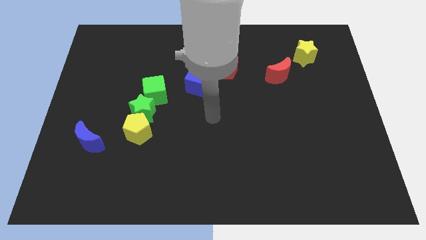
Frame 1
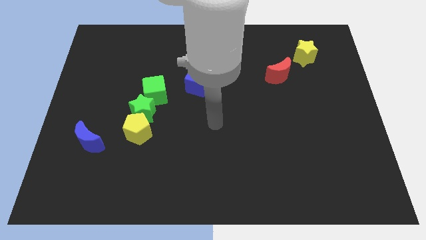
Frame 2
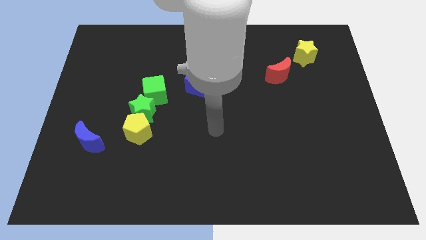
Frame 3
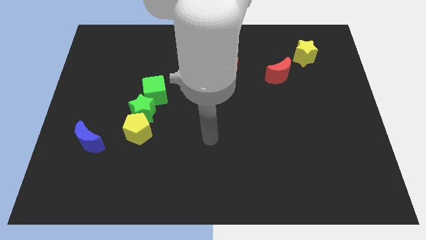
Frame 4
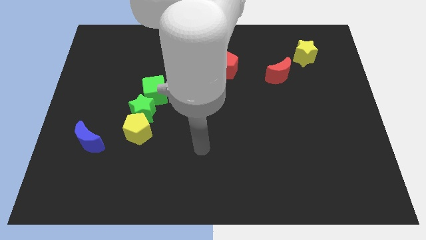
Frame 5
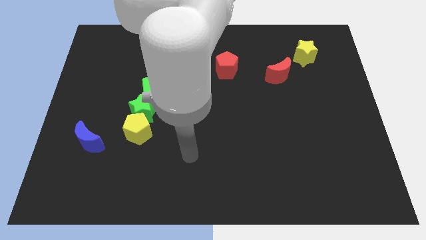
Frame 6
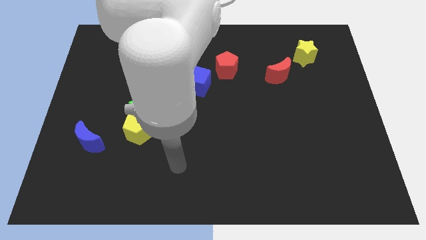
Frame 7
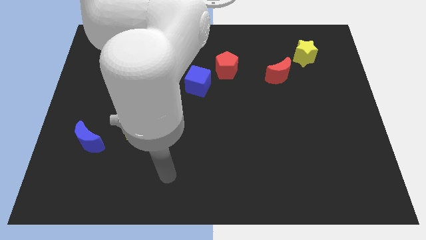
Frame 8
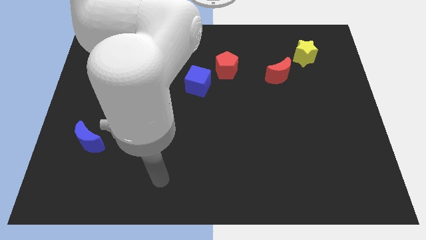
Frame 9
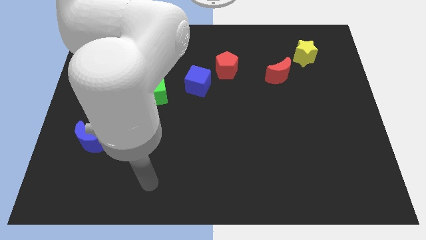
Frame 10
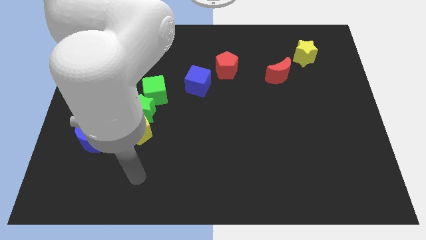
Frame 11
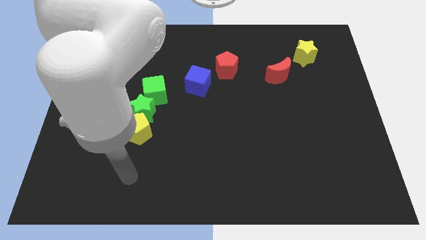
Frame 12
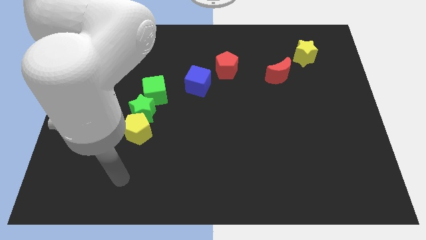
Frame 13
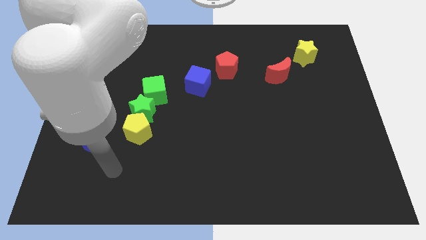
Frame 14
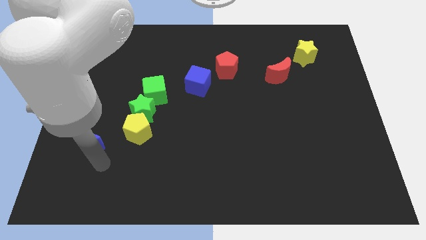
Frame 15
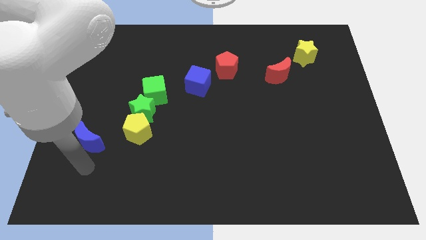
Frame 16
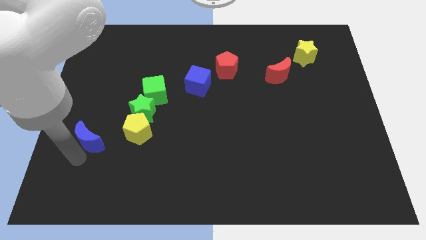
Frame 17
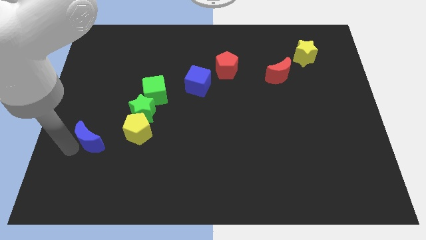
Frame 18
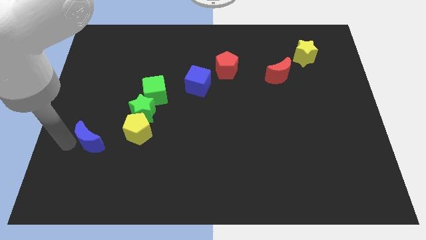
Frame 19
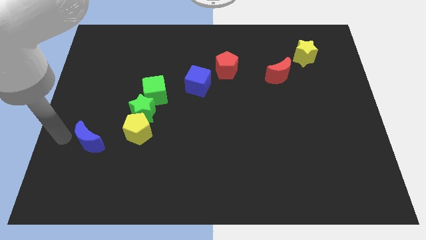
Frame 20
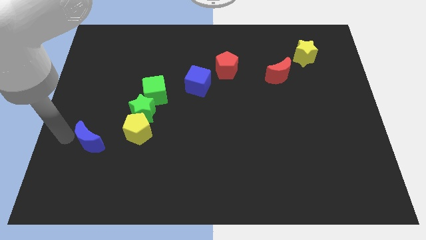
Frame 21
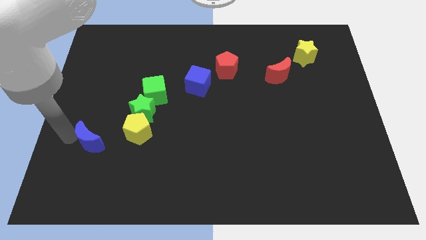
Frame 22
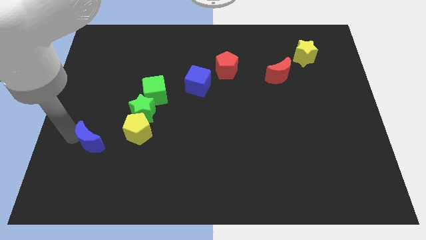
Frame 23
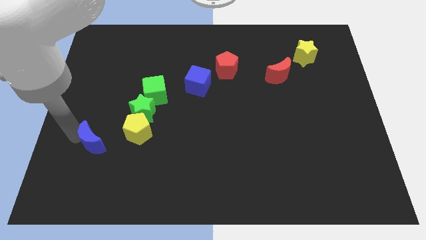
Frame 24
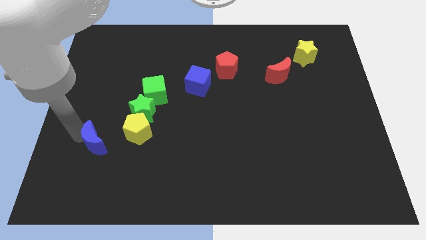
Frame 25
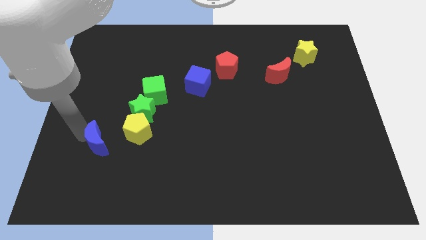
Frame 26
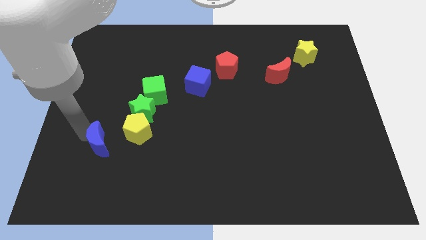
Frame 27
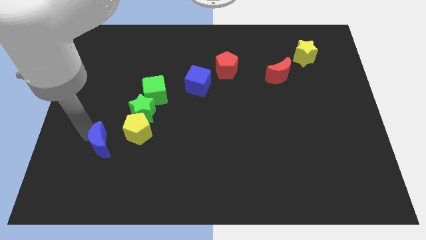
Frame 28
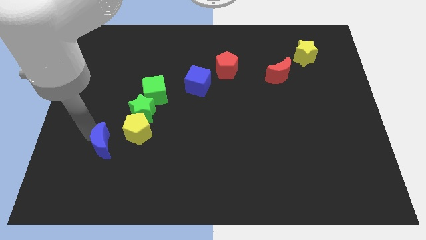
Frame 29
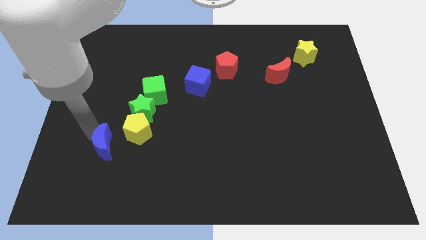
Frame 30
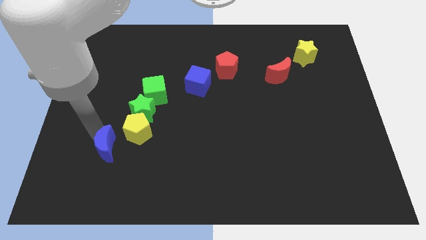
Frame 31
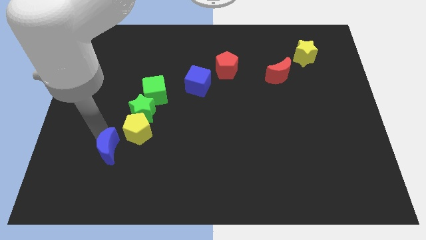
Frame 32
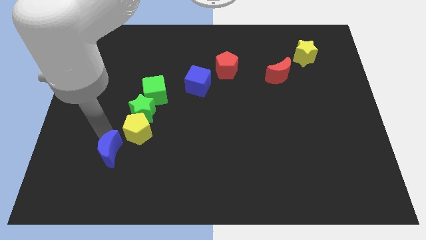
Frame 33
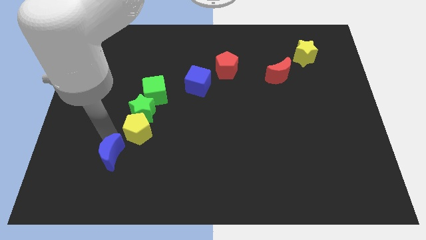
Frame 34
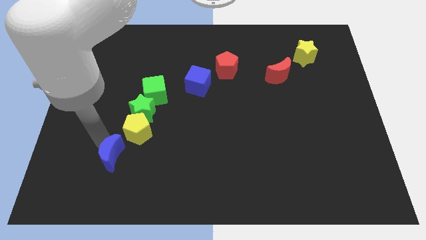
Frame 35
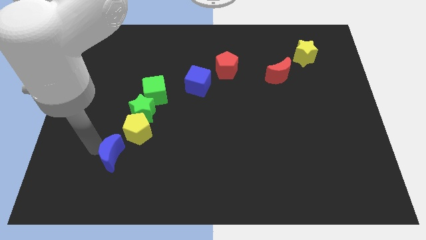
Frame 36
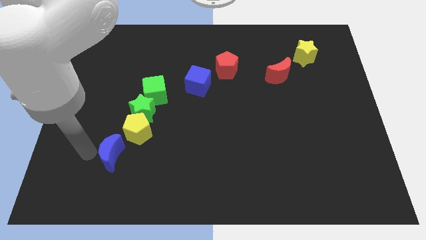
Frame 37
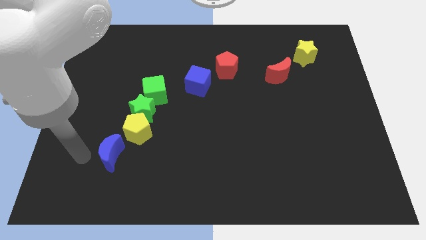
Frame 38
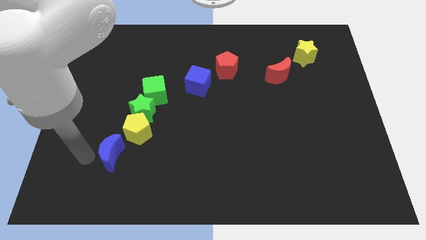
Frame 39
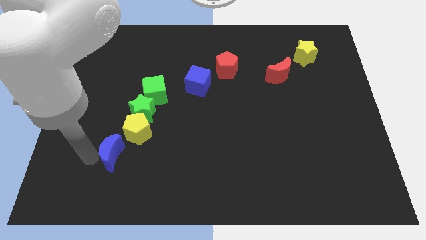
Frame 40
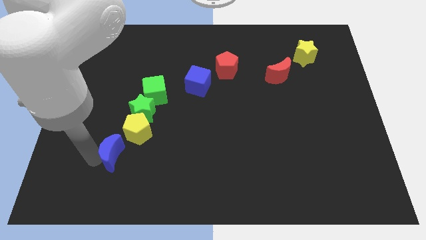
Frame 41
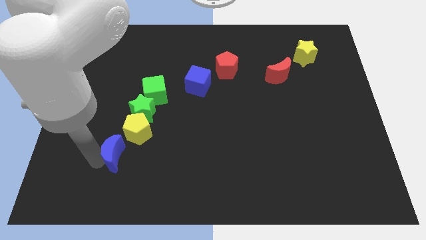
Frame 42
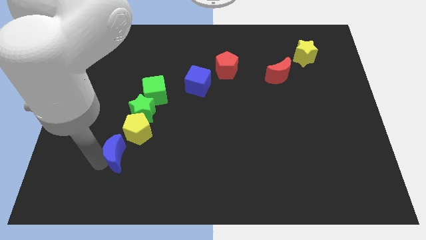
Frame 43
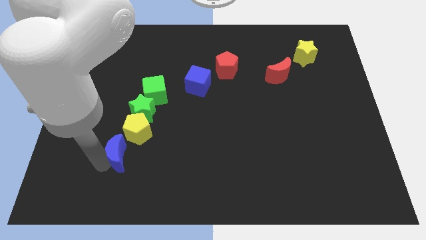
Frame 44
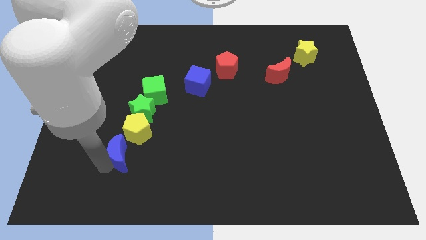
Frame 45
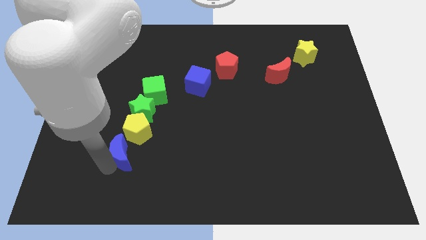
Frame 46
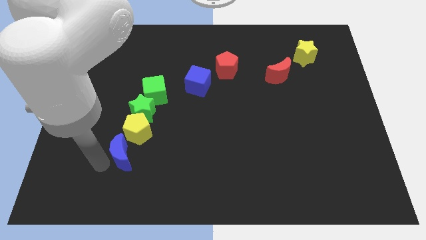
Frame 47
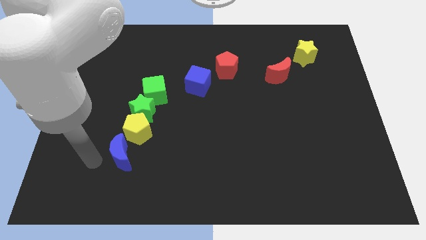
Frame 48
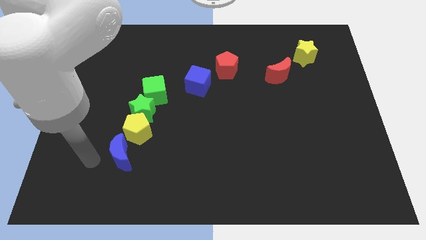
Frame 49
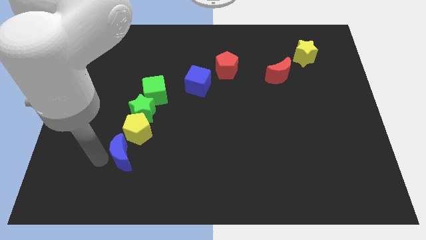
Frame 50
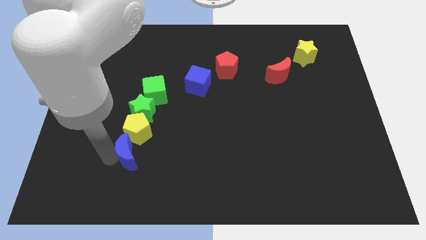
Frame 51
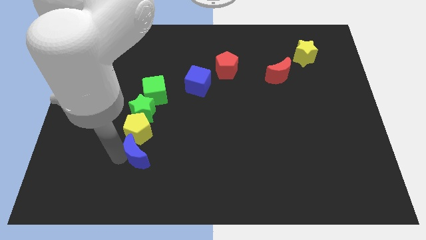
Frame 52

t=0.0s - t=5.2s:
push the blue moon to the bottom right of the yellow pentagon

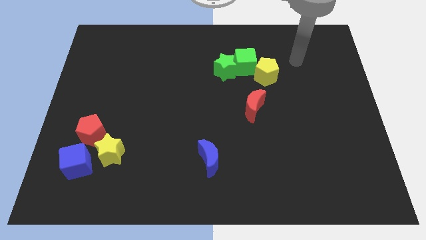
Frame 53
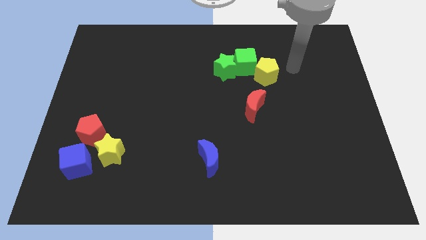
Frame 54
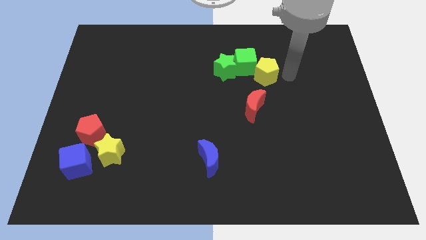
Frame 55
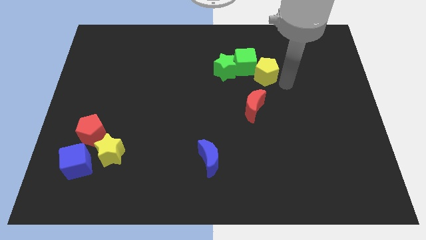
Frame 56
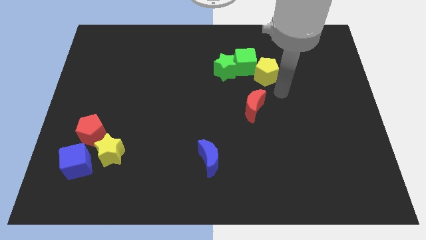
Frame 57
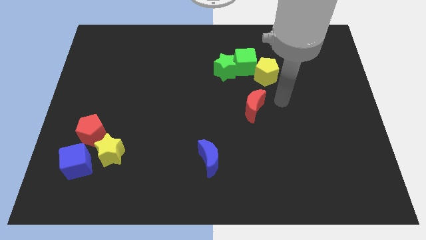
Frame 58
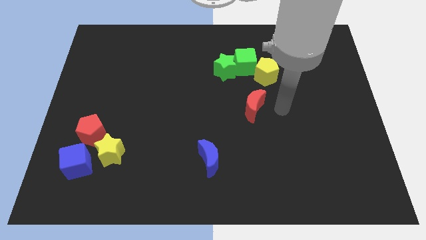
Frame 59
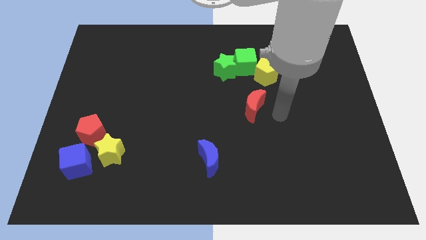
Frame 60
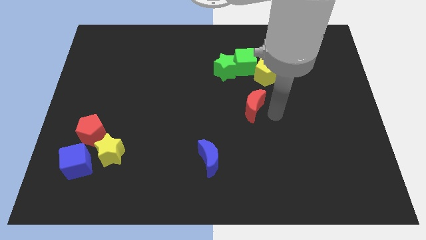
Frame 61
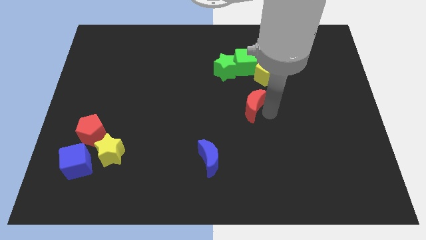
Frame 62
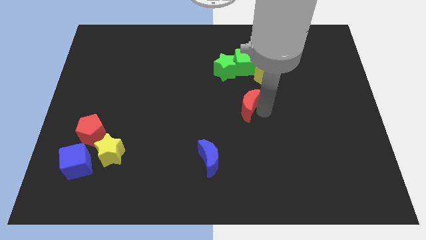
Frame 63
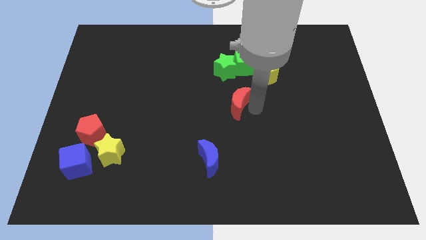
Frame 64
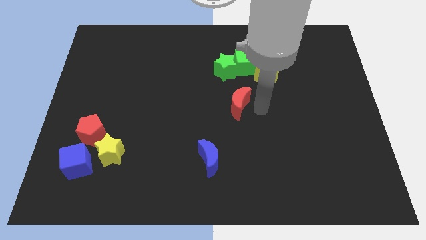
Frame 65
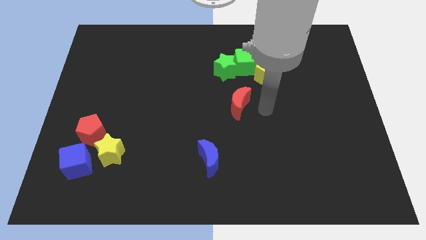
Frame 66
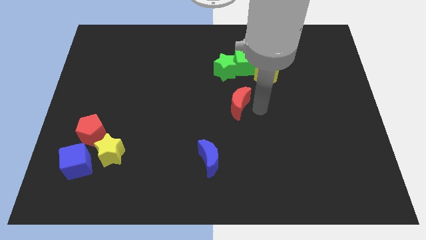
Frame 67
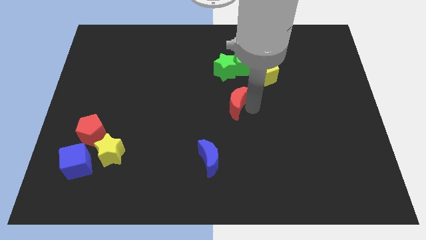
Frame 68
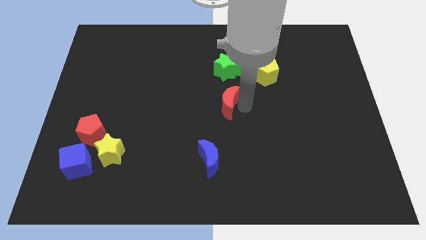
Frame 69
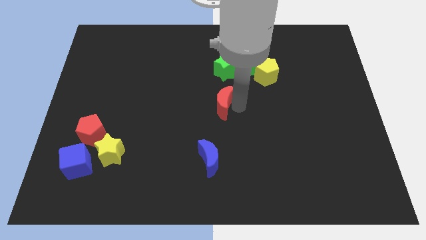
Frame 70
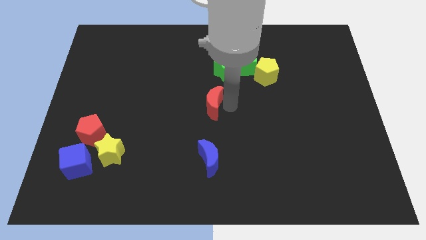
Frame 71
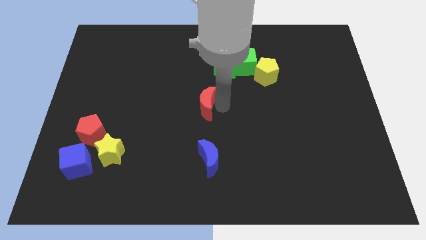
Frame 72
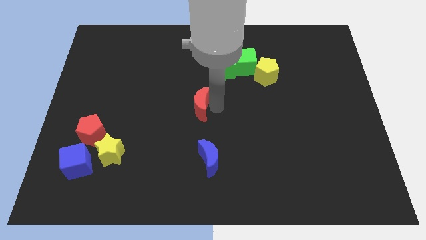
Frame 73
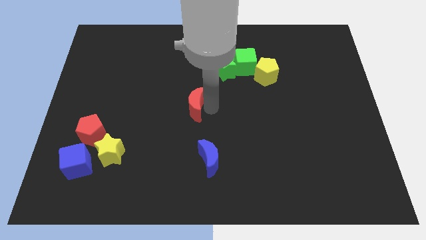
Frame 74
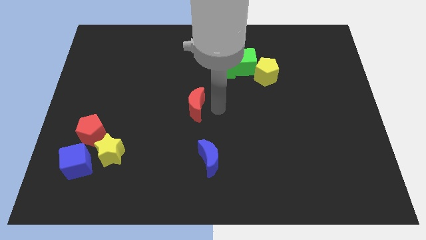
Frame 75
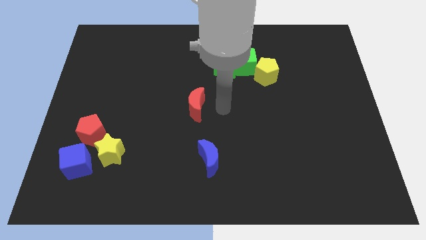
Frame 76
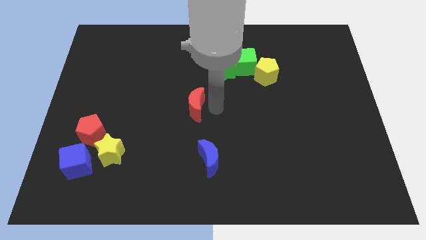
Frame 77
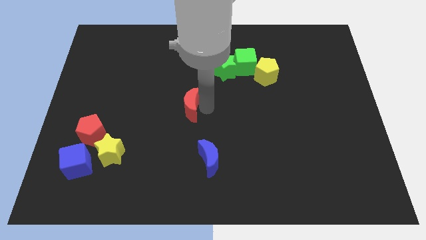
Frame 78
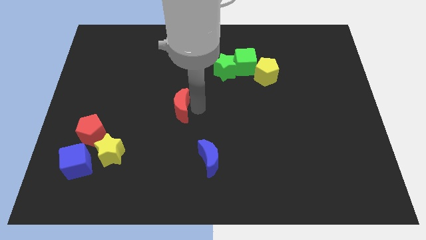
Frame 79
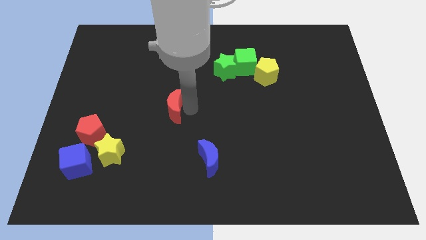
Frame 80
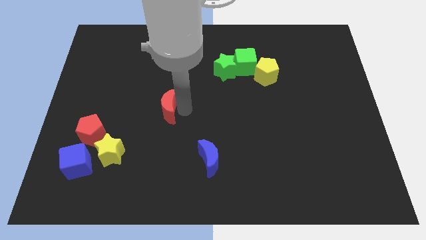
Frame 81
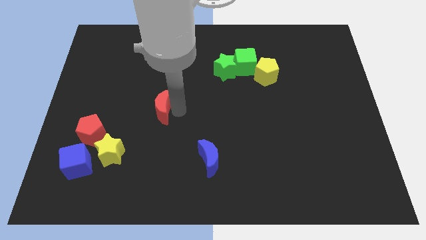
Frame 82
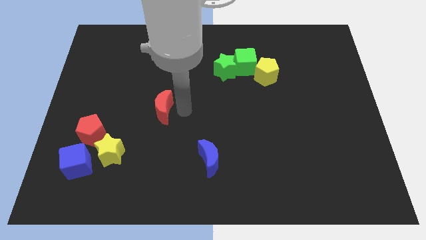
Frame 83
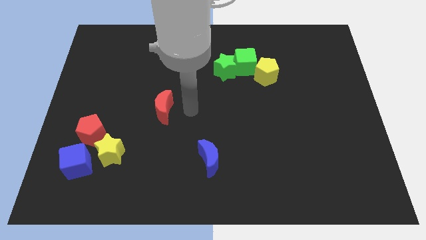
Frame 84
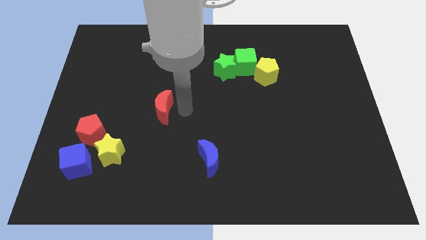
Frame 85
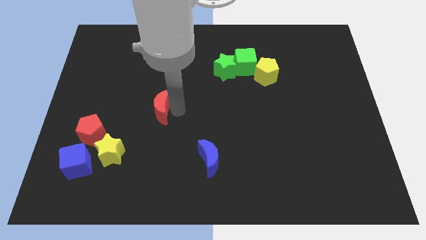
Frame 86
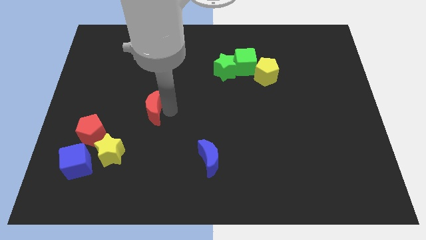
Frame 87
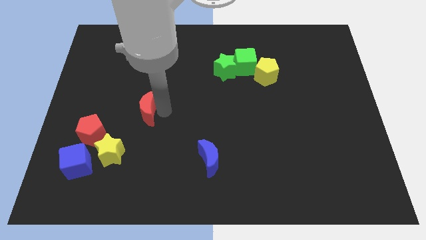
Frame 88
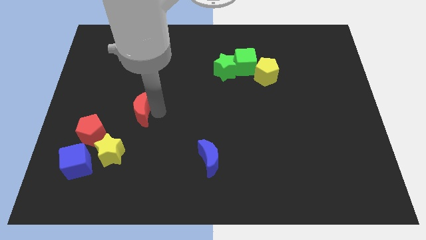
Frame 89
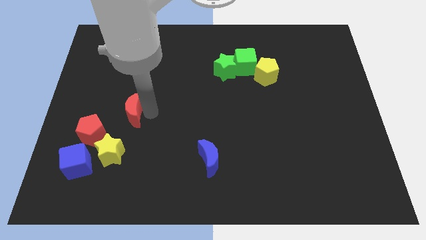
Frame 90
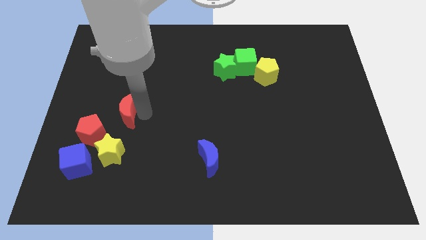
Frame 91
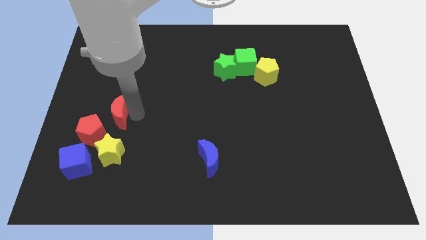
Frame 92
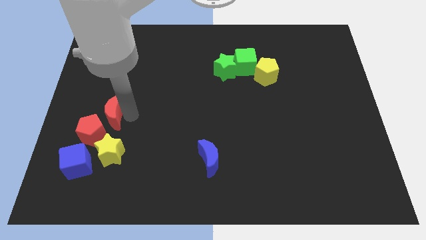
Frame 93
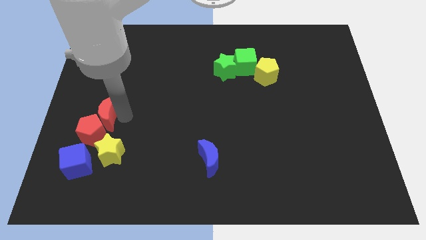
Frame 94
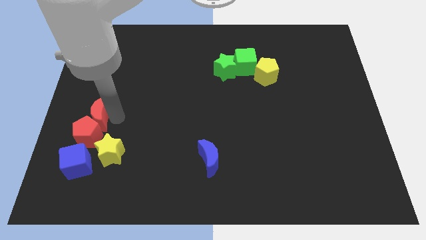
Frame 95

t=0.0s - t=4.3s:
move the red moon to the top left side of the yellow star
